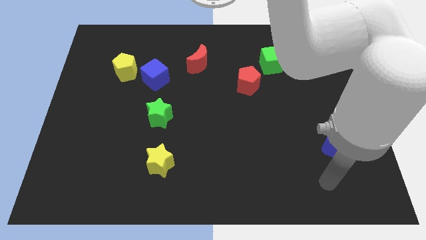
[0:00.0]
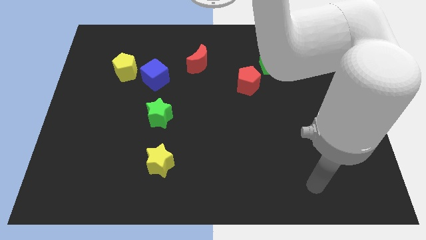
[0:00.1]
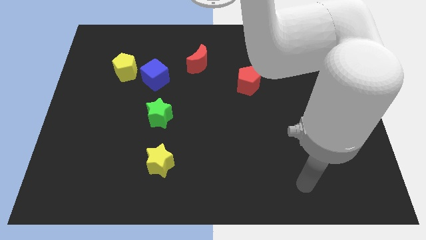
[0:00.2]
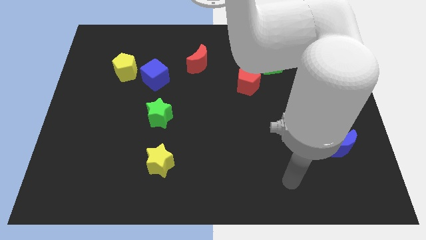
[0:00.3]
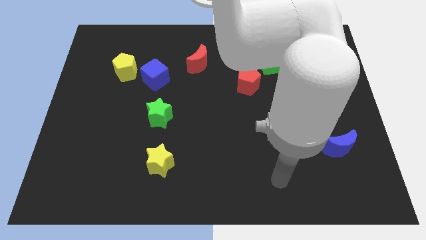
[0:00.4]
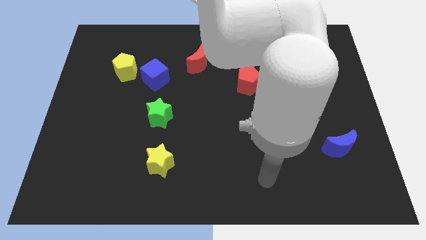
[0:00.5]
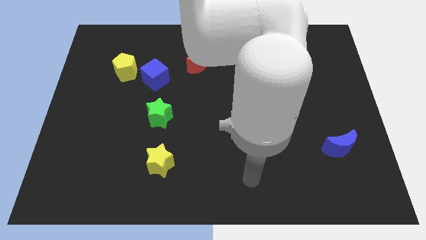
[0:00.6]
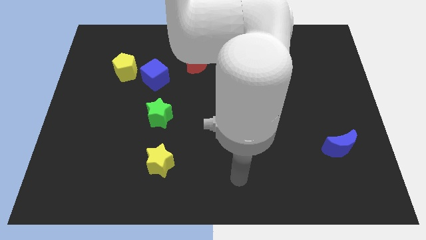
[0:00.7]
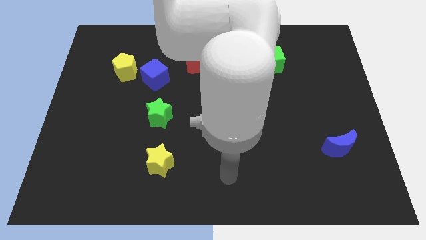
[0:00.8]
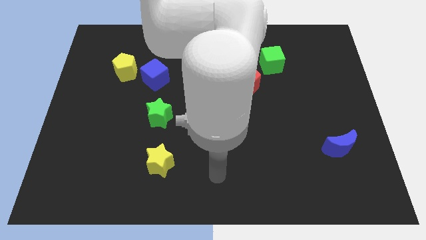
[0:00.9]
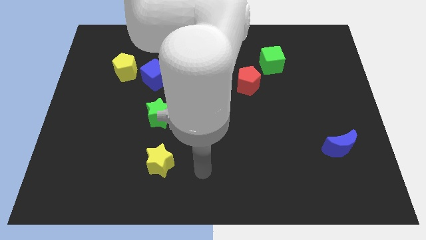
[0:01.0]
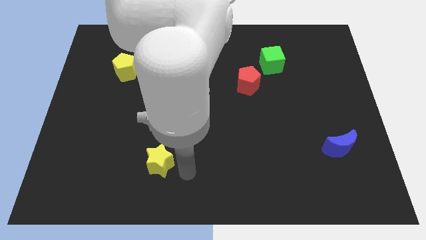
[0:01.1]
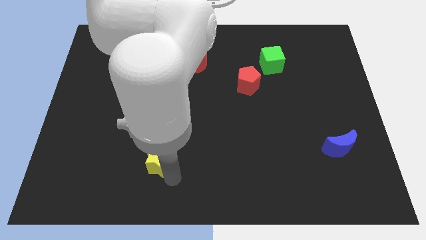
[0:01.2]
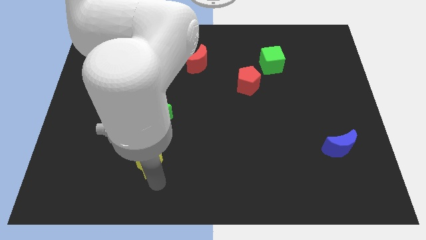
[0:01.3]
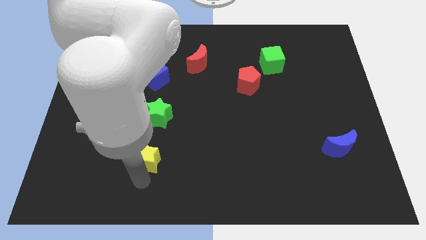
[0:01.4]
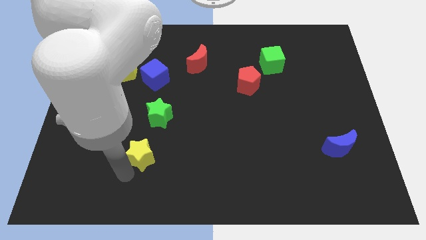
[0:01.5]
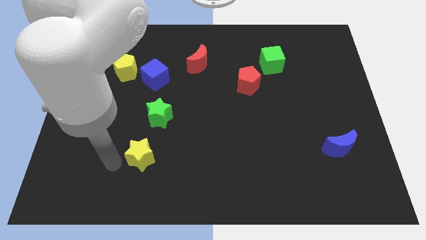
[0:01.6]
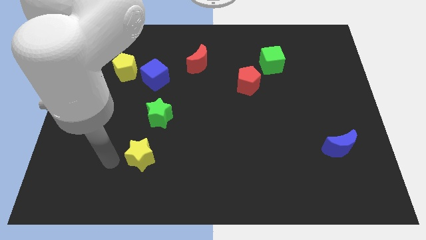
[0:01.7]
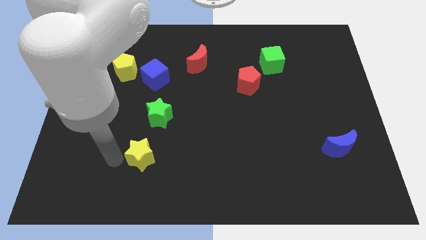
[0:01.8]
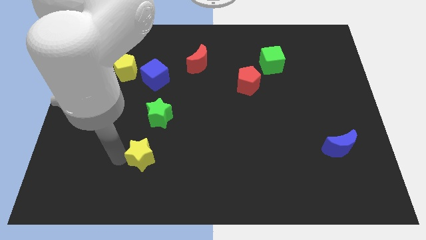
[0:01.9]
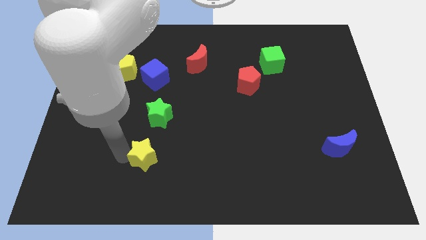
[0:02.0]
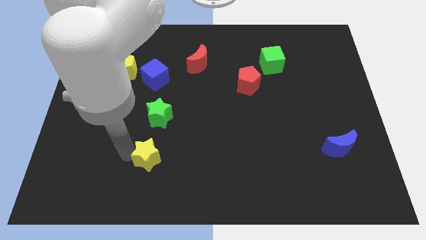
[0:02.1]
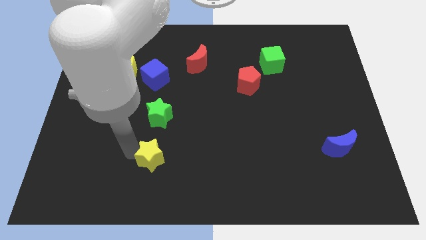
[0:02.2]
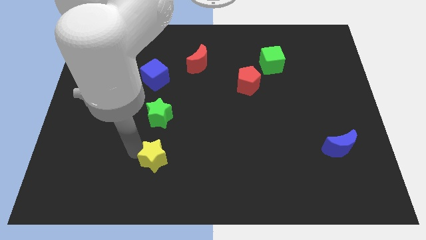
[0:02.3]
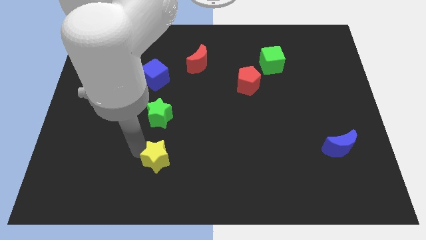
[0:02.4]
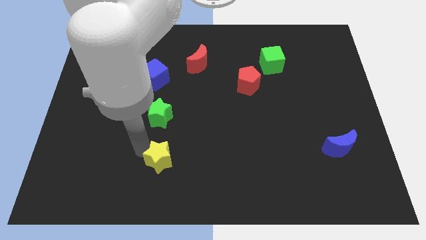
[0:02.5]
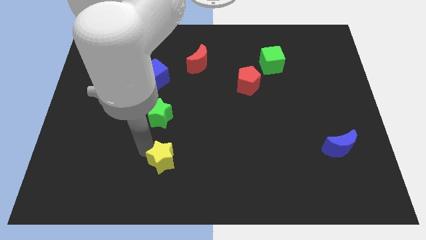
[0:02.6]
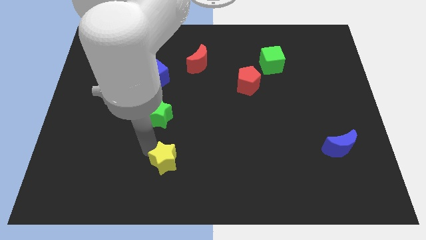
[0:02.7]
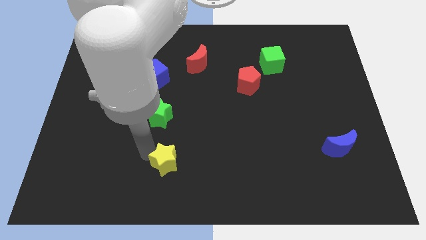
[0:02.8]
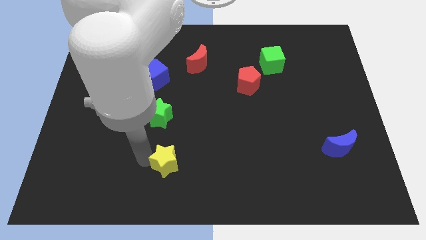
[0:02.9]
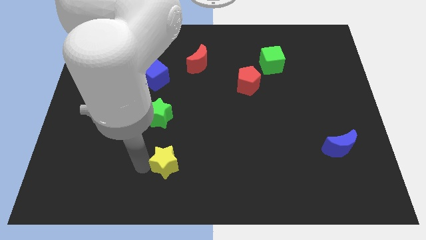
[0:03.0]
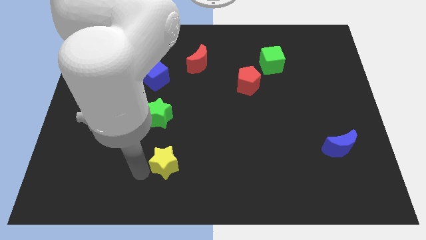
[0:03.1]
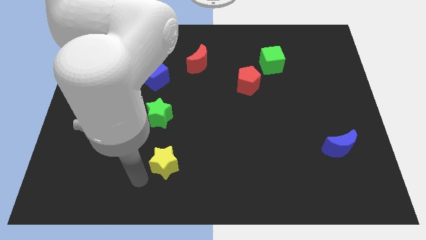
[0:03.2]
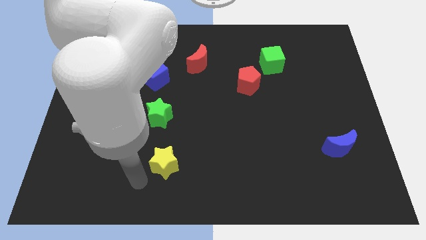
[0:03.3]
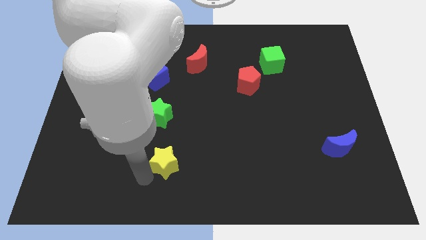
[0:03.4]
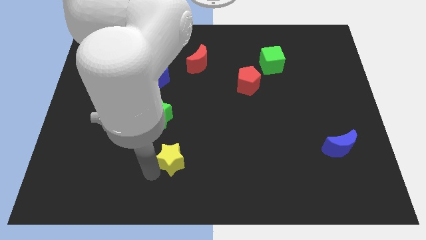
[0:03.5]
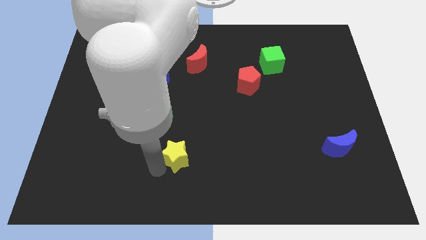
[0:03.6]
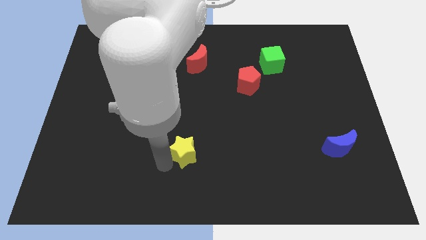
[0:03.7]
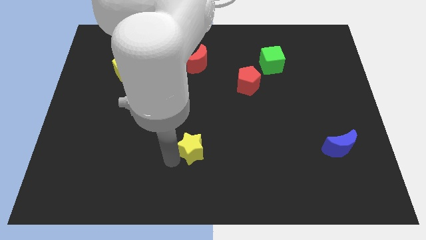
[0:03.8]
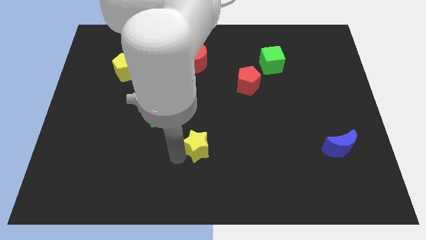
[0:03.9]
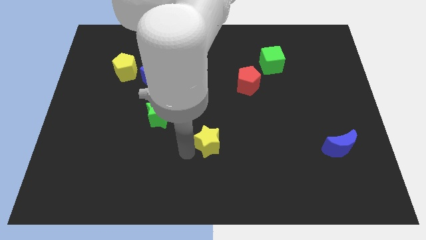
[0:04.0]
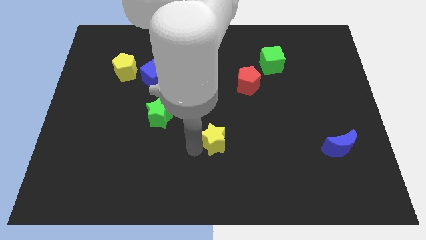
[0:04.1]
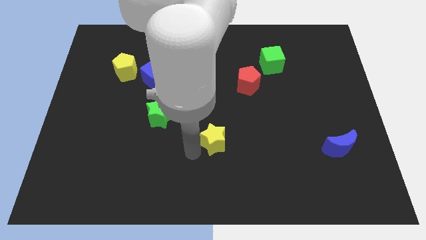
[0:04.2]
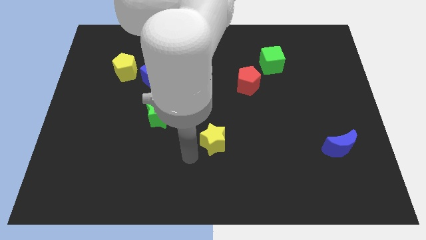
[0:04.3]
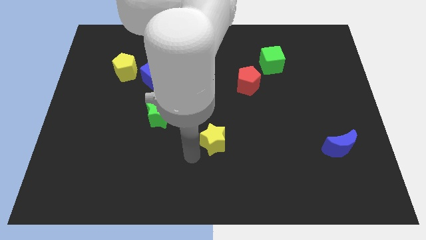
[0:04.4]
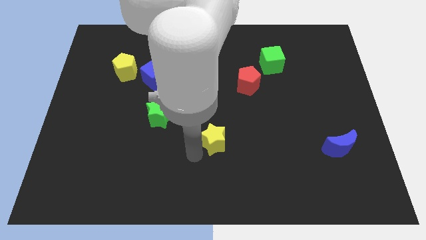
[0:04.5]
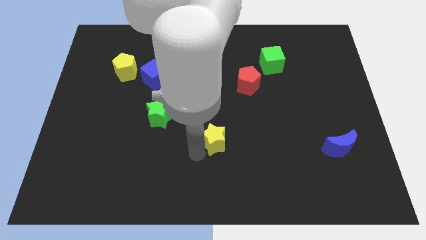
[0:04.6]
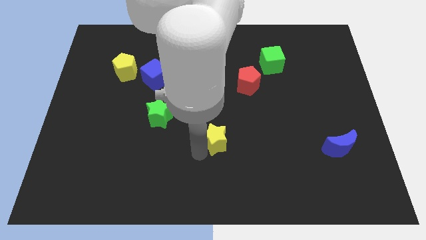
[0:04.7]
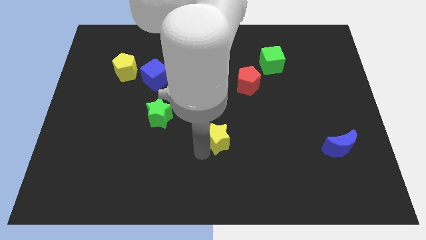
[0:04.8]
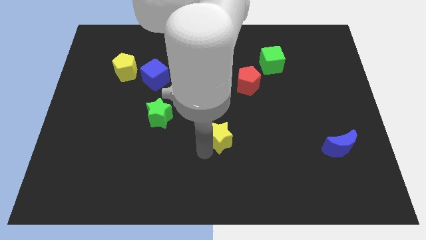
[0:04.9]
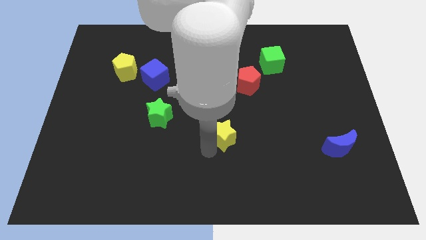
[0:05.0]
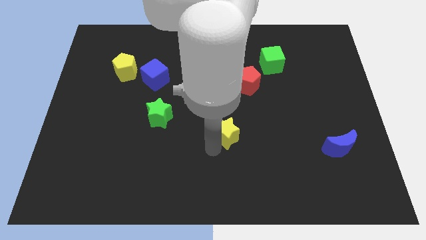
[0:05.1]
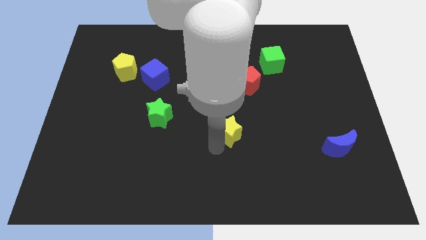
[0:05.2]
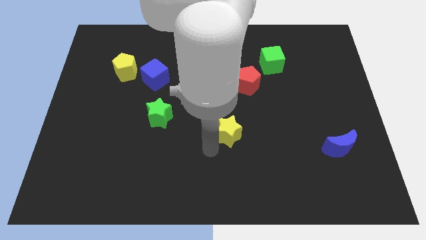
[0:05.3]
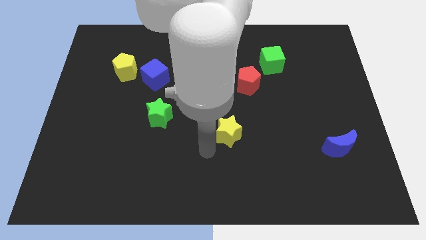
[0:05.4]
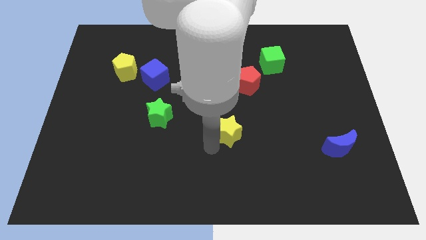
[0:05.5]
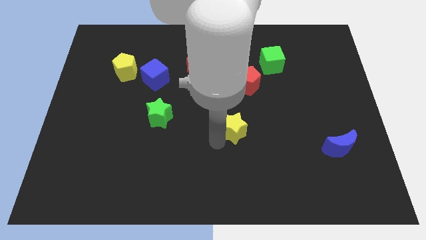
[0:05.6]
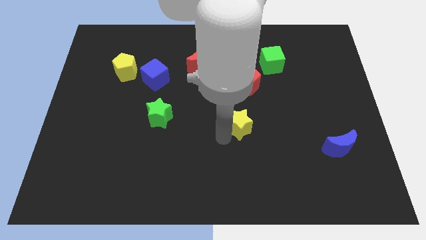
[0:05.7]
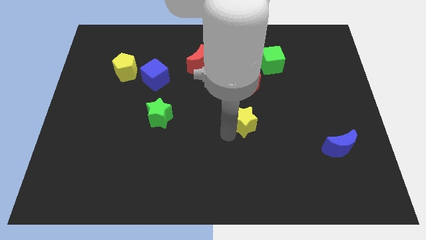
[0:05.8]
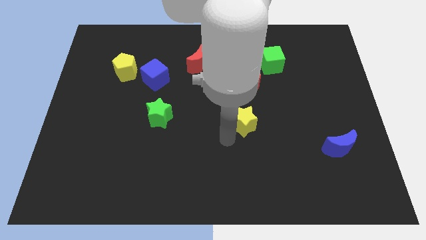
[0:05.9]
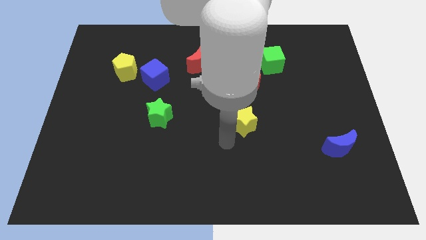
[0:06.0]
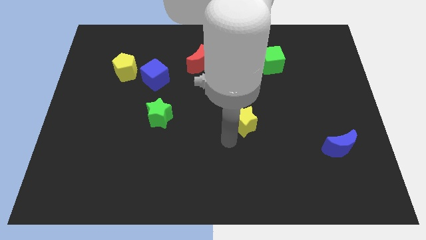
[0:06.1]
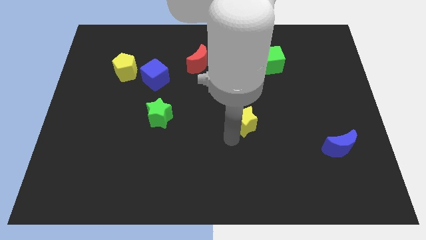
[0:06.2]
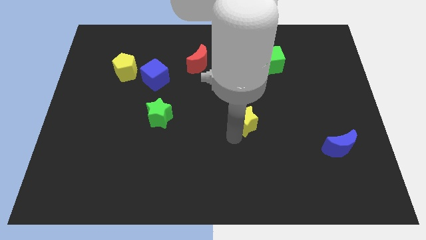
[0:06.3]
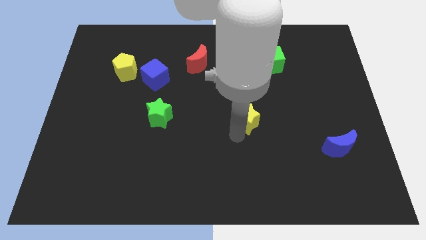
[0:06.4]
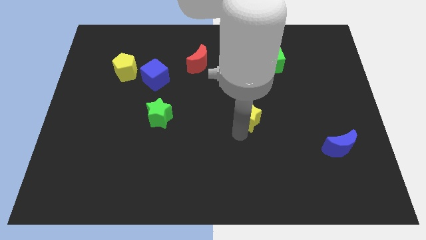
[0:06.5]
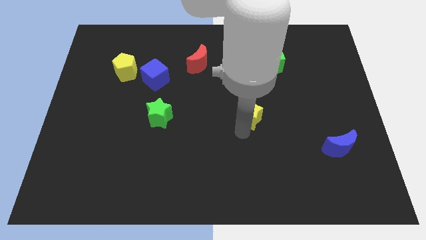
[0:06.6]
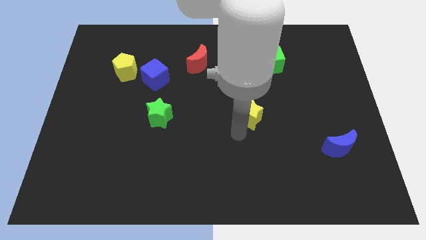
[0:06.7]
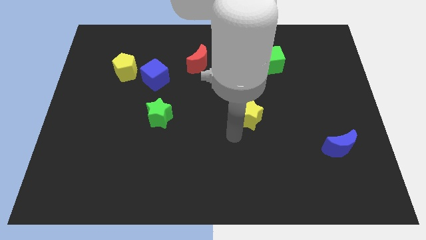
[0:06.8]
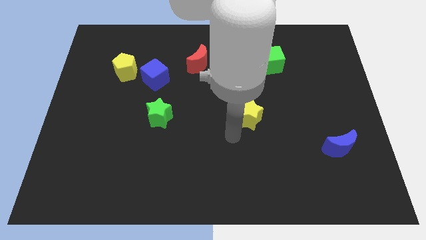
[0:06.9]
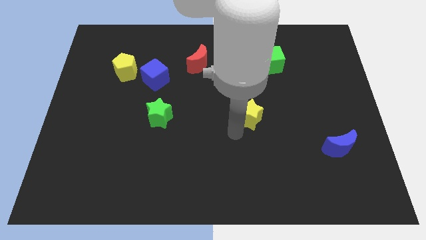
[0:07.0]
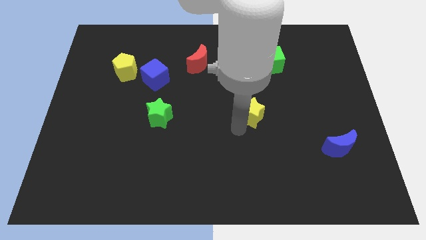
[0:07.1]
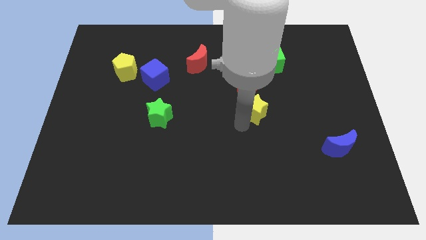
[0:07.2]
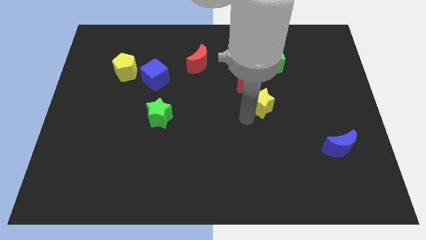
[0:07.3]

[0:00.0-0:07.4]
put the yellow star to the bottom of the green cube

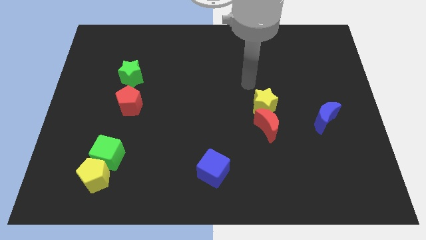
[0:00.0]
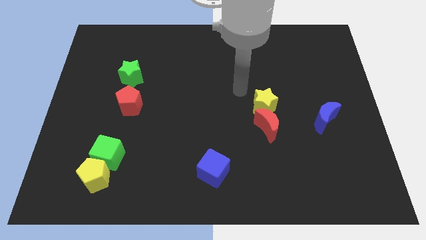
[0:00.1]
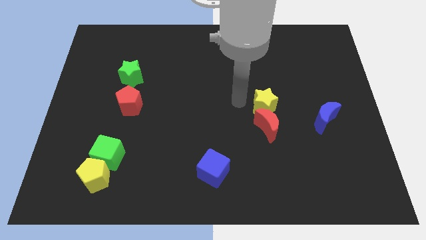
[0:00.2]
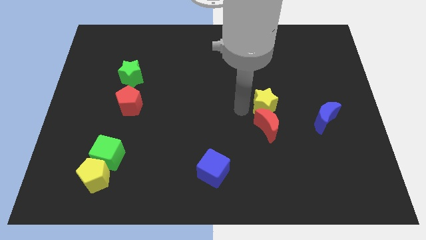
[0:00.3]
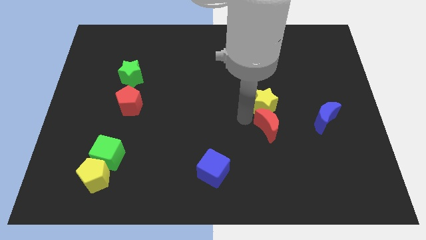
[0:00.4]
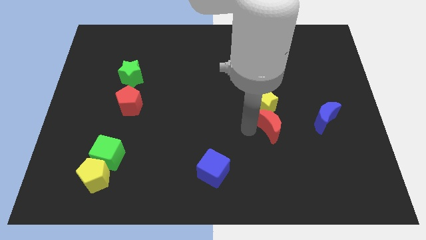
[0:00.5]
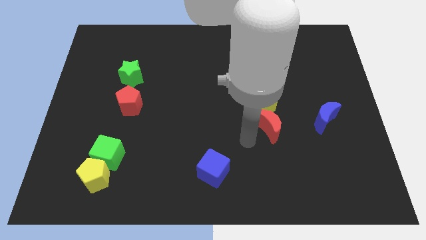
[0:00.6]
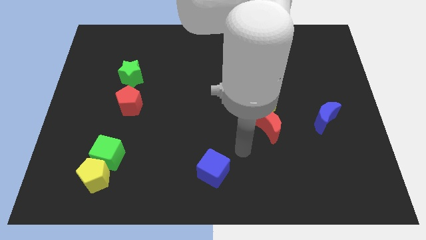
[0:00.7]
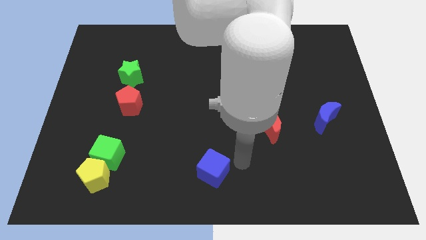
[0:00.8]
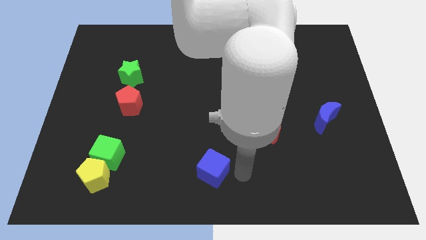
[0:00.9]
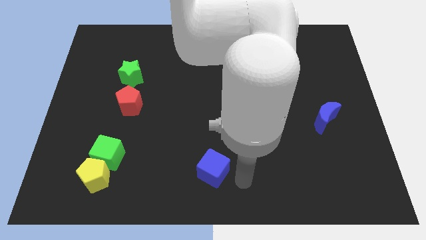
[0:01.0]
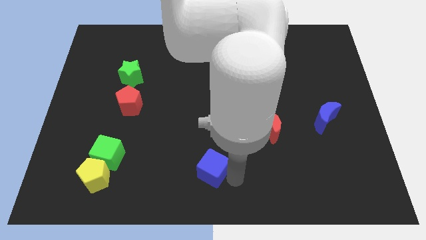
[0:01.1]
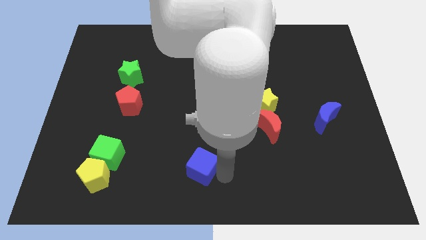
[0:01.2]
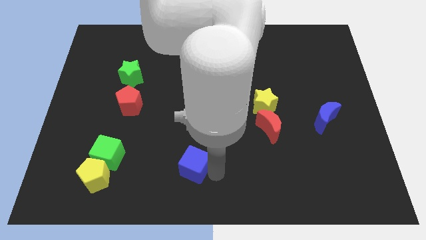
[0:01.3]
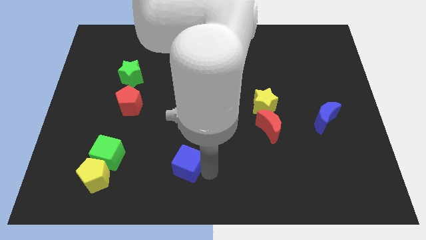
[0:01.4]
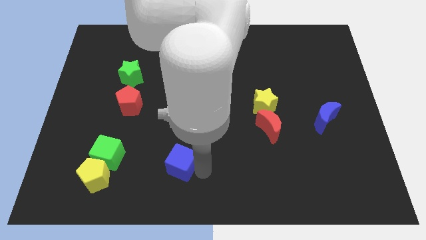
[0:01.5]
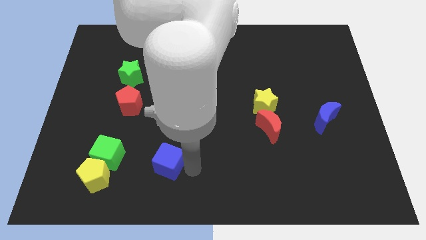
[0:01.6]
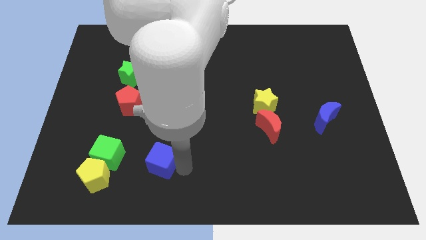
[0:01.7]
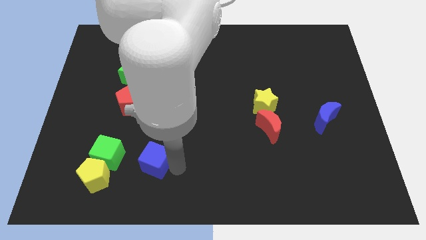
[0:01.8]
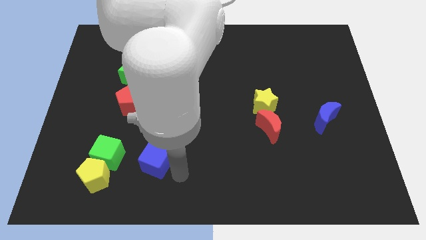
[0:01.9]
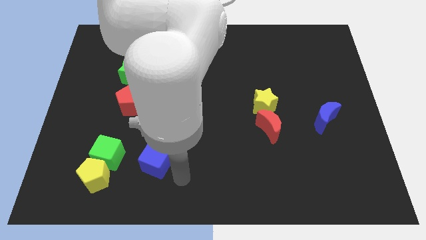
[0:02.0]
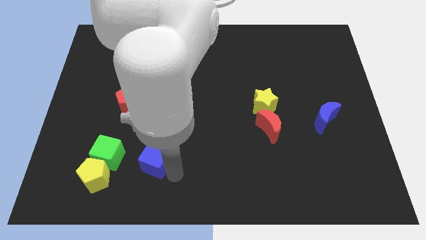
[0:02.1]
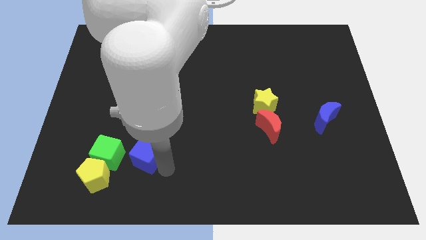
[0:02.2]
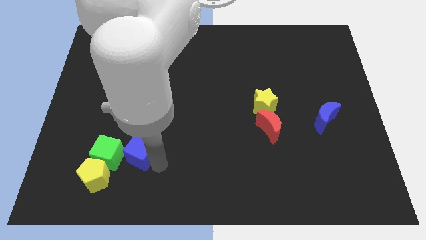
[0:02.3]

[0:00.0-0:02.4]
put the blue cube to the bottom side of the red pentagon
